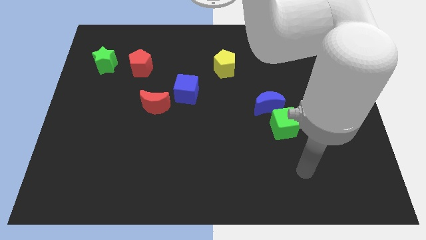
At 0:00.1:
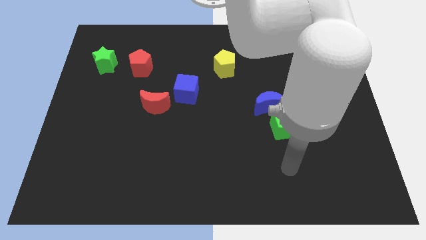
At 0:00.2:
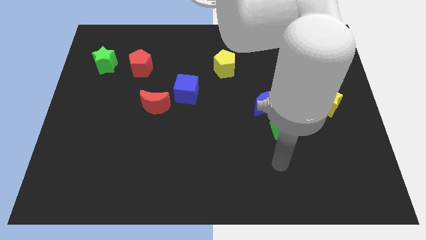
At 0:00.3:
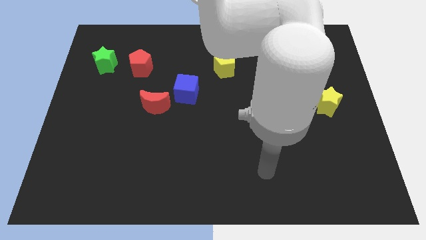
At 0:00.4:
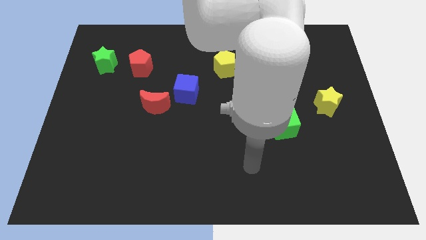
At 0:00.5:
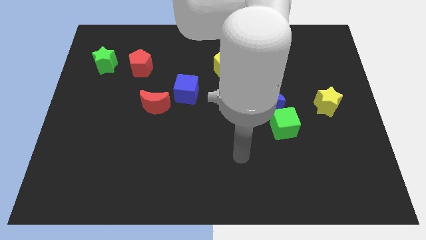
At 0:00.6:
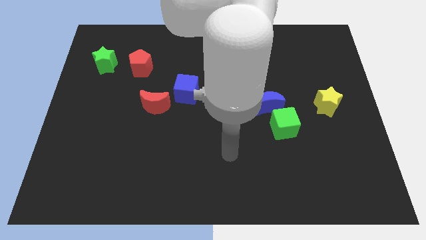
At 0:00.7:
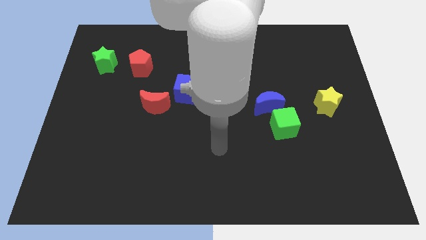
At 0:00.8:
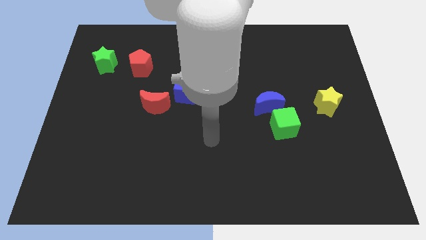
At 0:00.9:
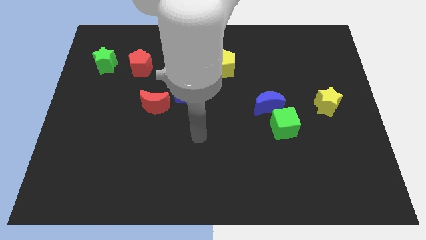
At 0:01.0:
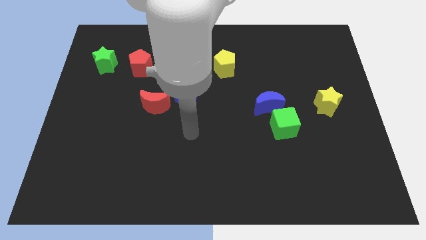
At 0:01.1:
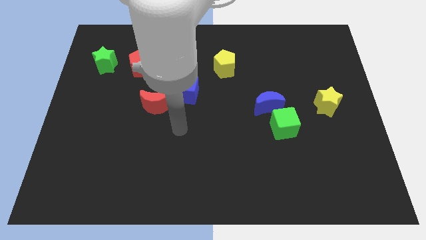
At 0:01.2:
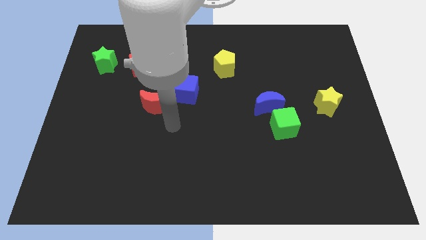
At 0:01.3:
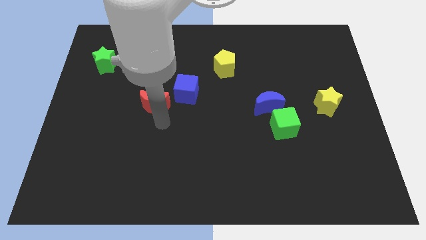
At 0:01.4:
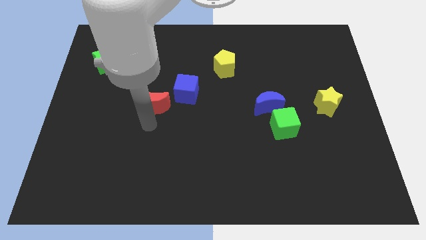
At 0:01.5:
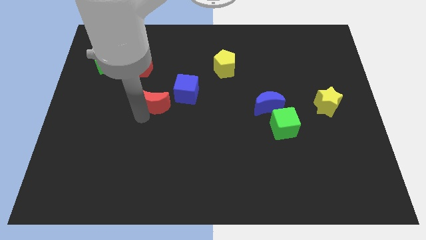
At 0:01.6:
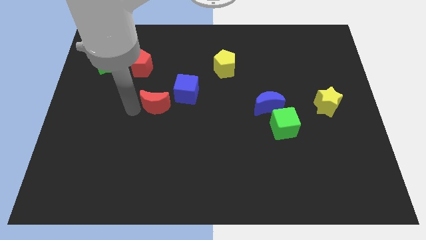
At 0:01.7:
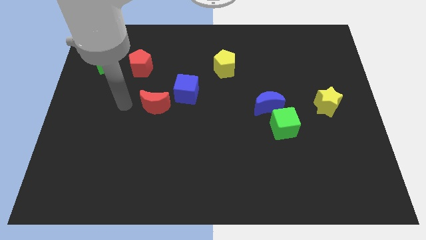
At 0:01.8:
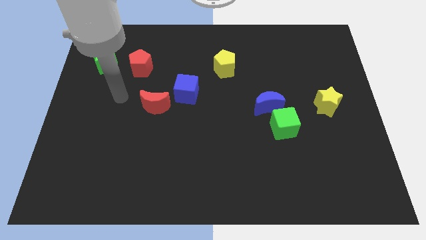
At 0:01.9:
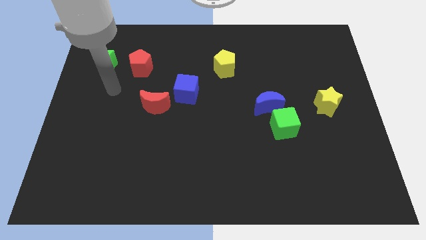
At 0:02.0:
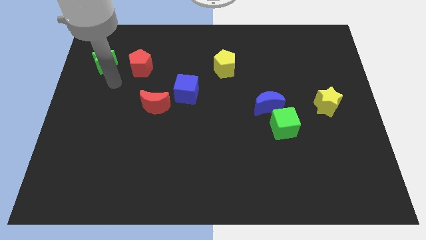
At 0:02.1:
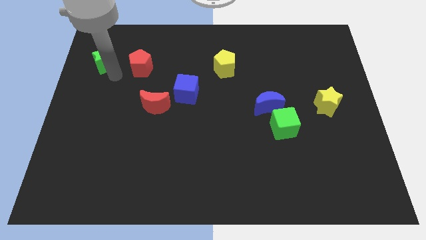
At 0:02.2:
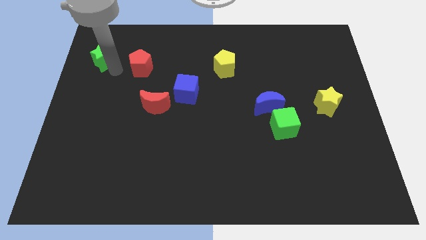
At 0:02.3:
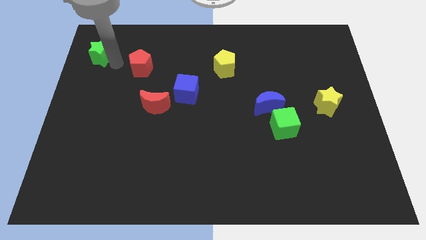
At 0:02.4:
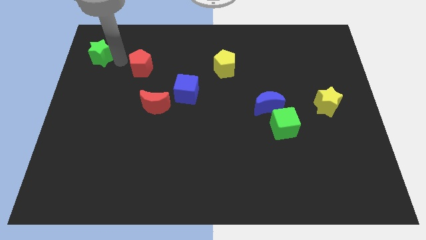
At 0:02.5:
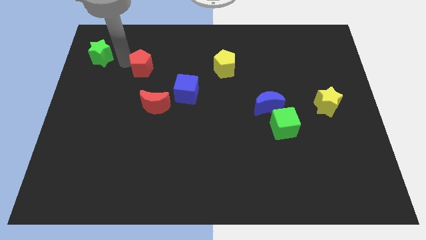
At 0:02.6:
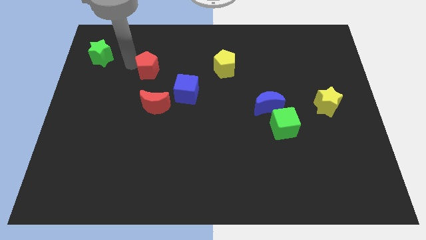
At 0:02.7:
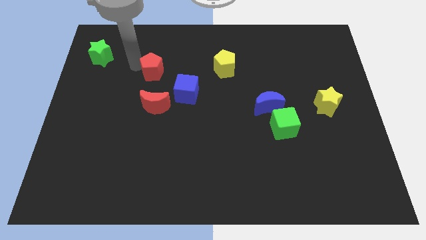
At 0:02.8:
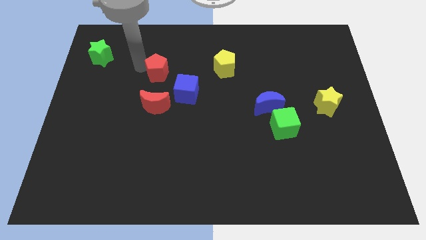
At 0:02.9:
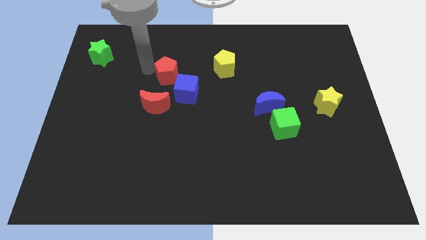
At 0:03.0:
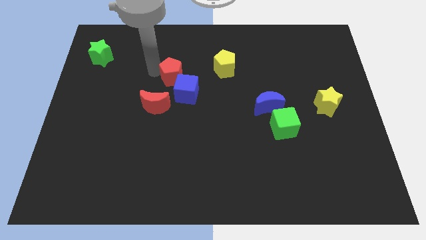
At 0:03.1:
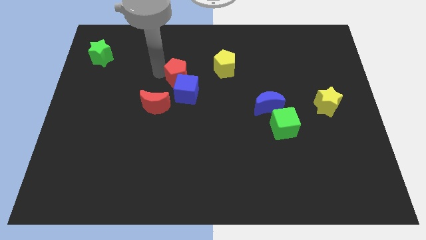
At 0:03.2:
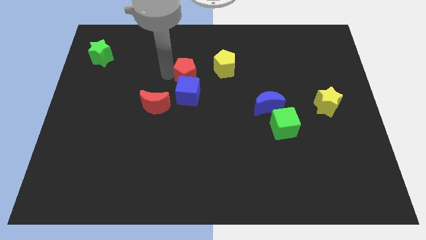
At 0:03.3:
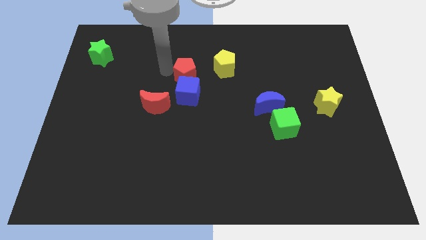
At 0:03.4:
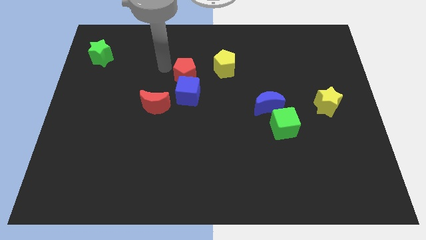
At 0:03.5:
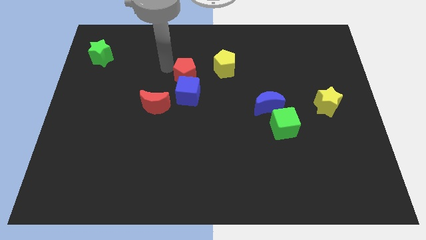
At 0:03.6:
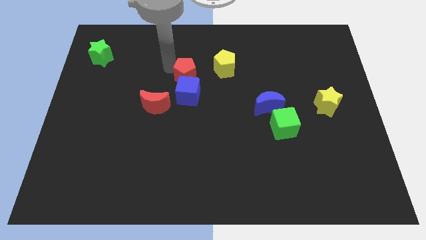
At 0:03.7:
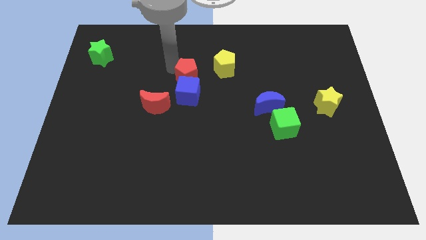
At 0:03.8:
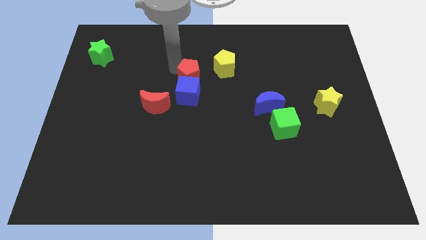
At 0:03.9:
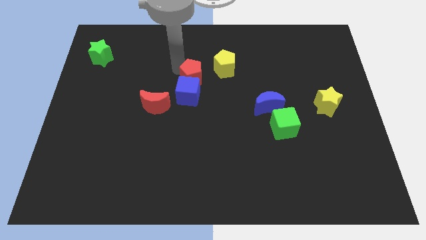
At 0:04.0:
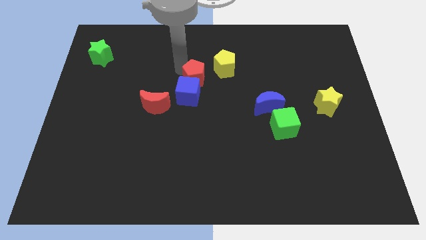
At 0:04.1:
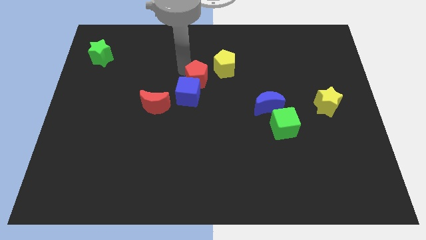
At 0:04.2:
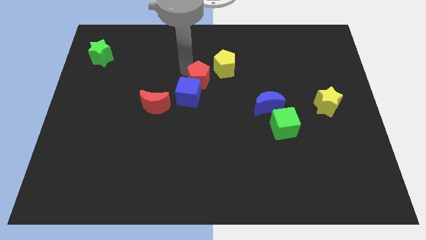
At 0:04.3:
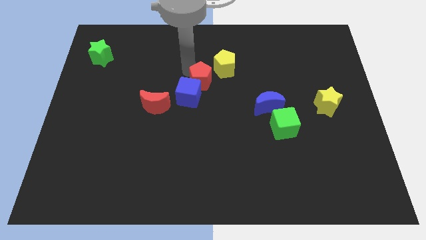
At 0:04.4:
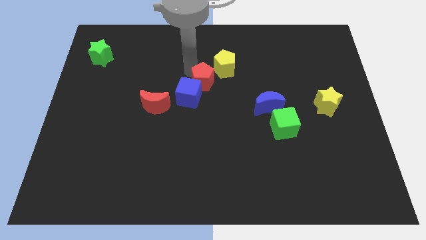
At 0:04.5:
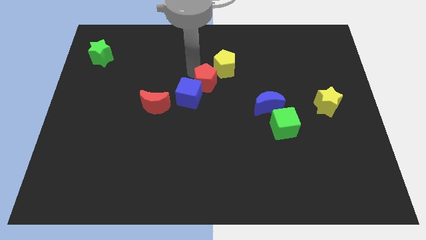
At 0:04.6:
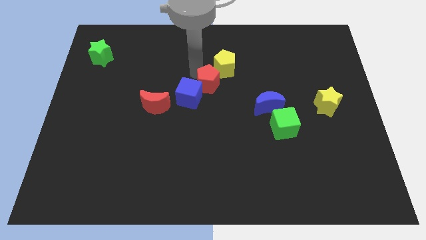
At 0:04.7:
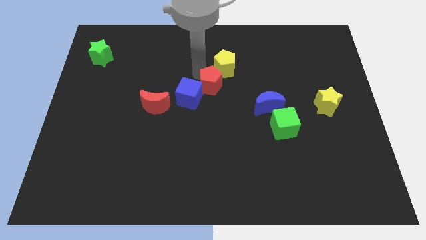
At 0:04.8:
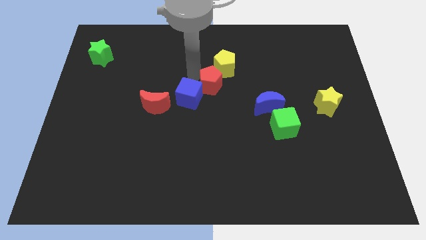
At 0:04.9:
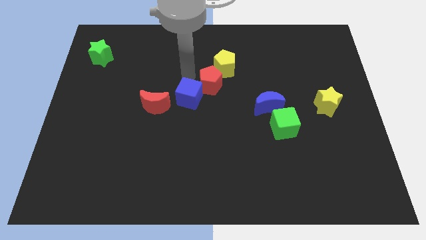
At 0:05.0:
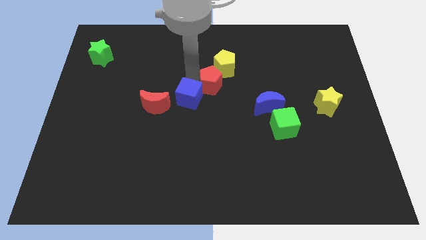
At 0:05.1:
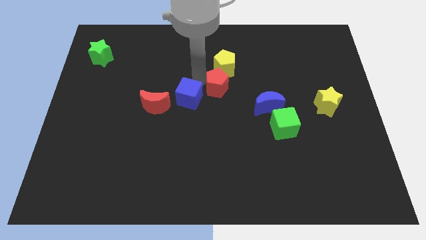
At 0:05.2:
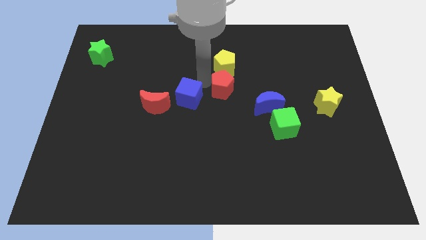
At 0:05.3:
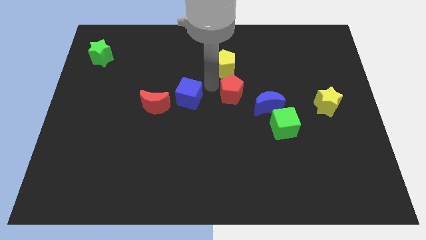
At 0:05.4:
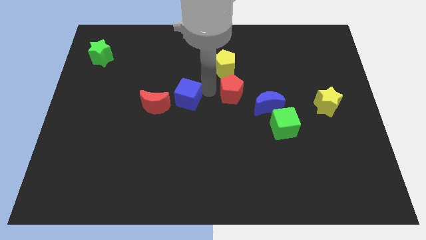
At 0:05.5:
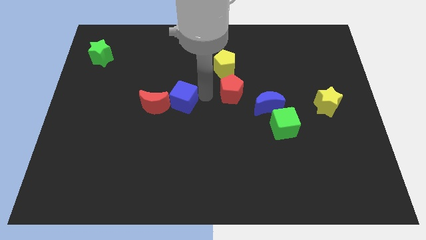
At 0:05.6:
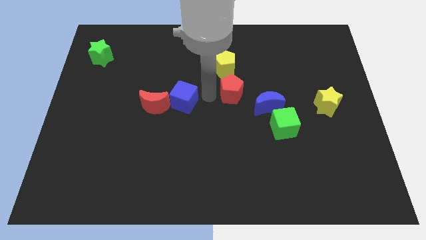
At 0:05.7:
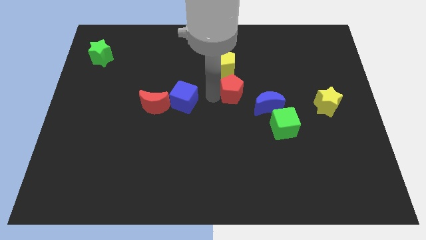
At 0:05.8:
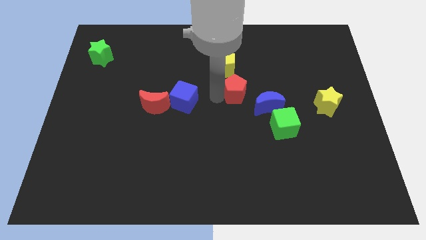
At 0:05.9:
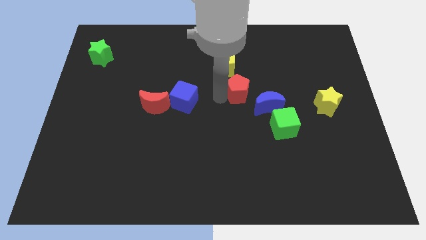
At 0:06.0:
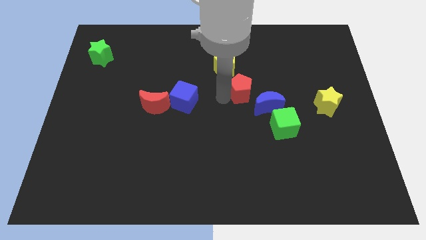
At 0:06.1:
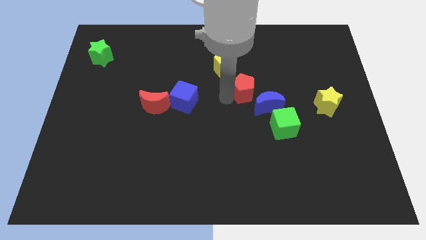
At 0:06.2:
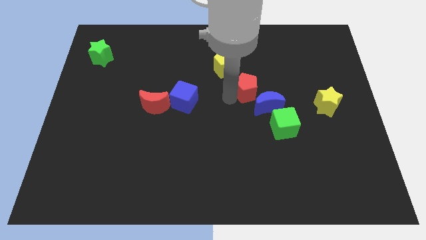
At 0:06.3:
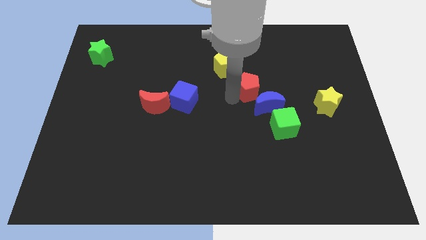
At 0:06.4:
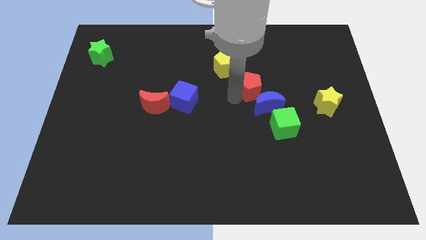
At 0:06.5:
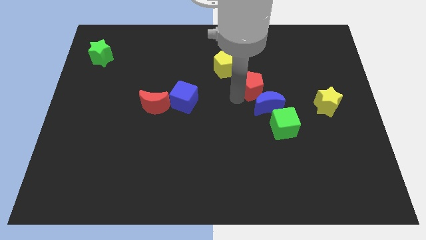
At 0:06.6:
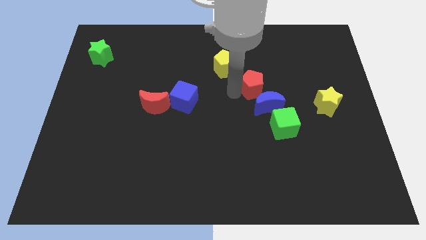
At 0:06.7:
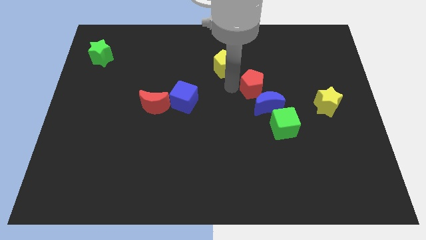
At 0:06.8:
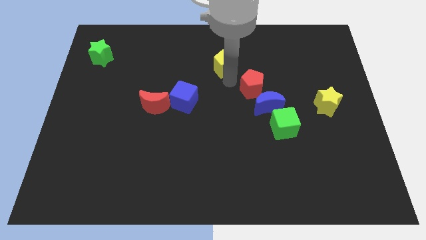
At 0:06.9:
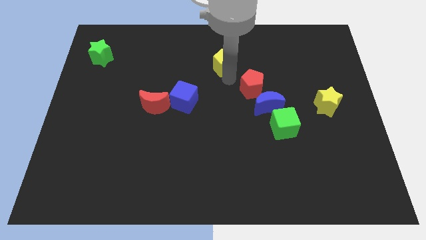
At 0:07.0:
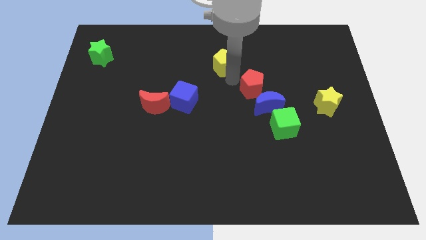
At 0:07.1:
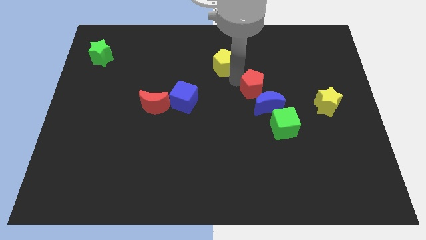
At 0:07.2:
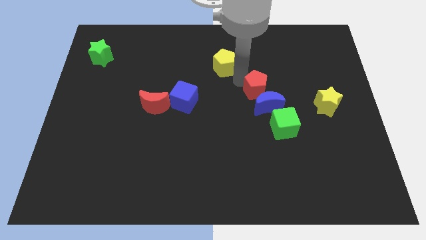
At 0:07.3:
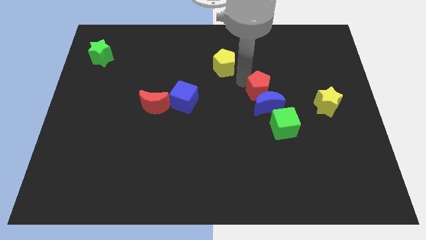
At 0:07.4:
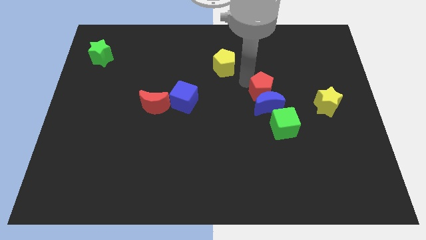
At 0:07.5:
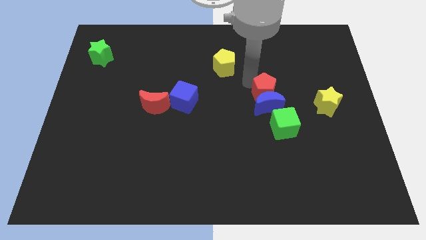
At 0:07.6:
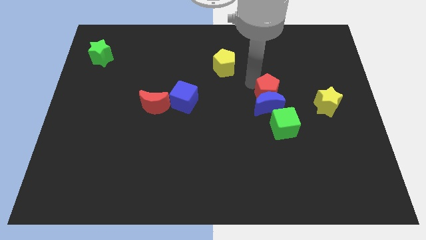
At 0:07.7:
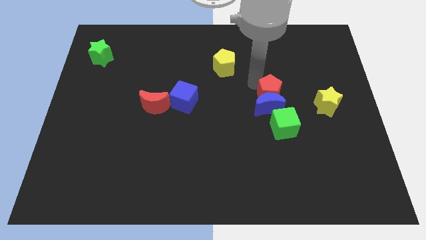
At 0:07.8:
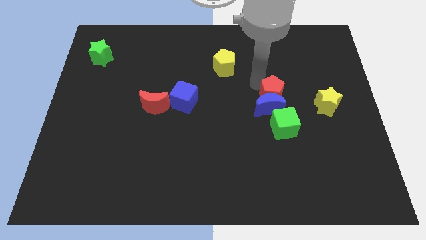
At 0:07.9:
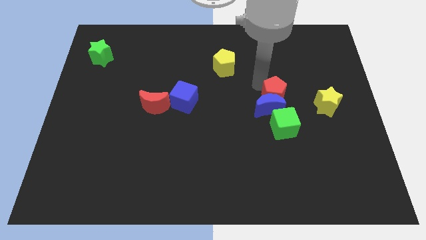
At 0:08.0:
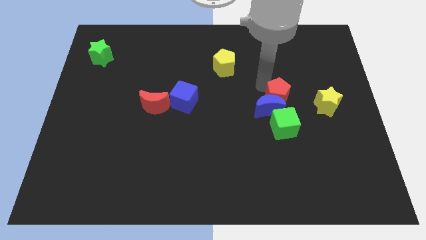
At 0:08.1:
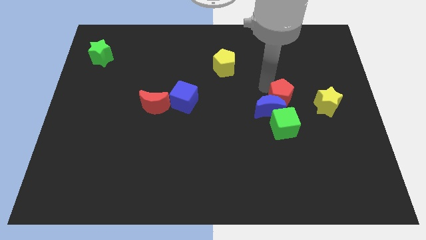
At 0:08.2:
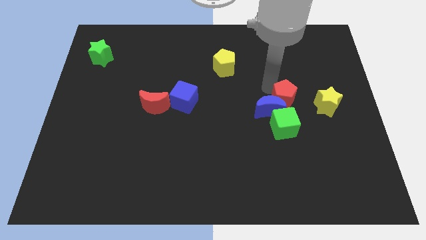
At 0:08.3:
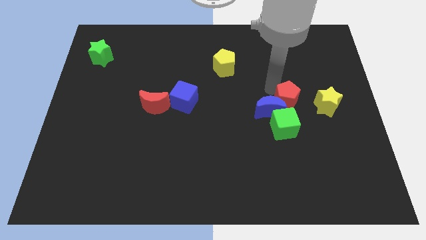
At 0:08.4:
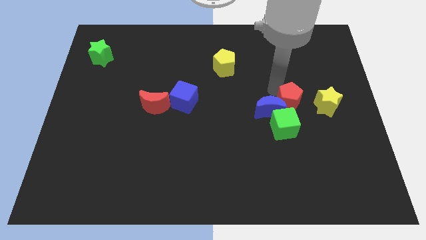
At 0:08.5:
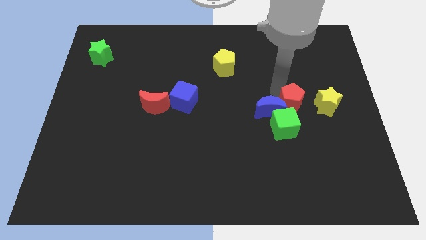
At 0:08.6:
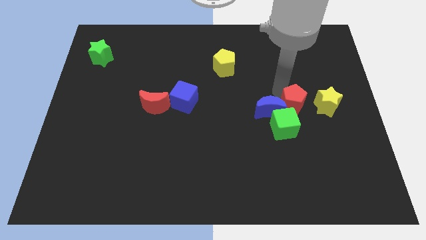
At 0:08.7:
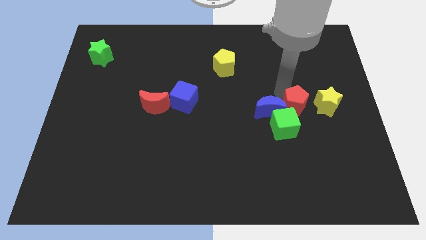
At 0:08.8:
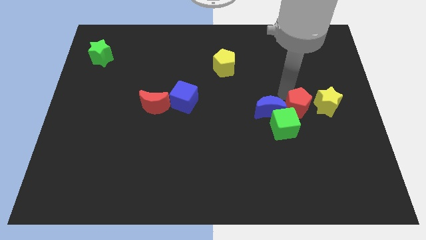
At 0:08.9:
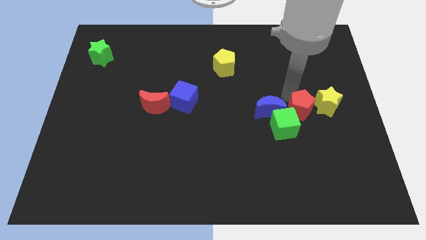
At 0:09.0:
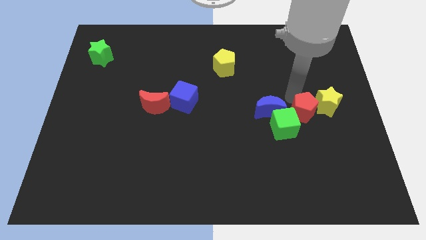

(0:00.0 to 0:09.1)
push the red pentagon to the right of the green cube
